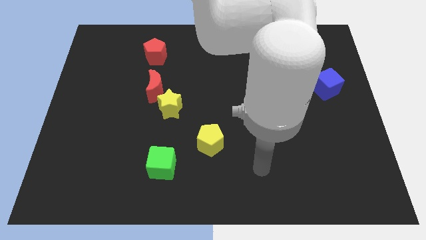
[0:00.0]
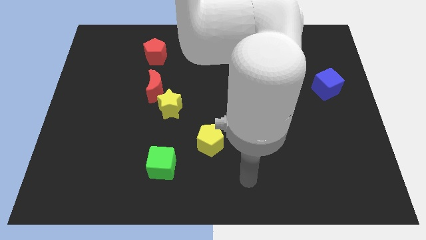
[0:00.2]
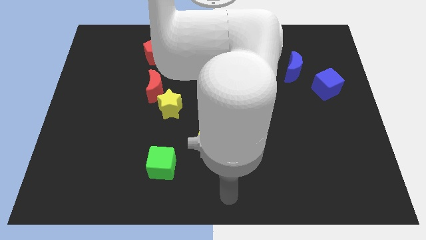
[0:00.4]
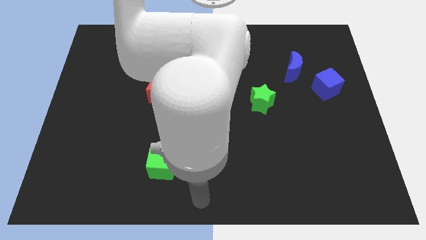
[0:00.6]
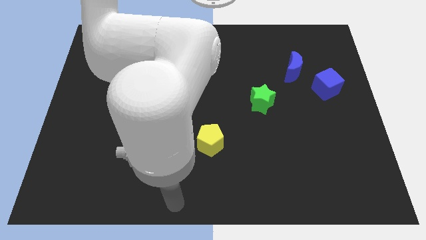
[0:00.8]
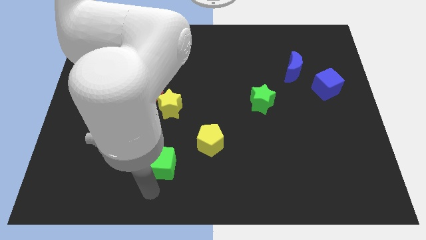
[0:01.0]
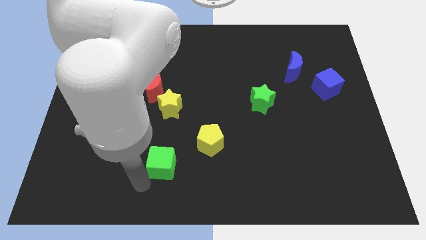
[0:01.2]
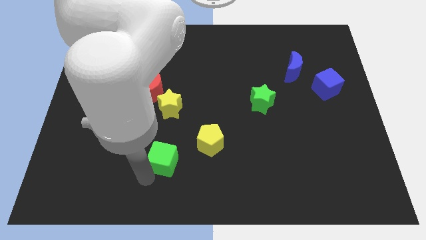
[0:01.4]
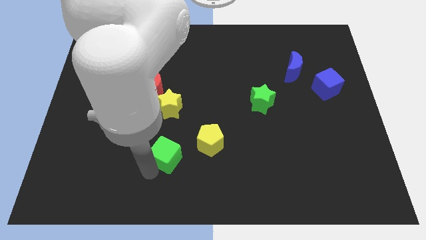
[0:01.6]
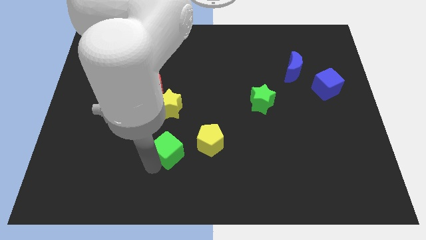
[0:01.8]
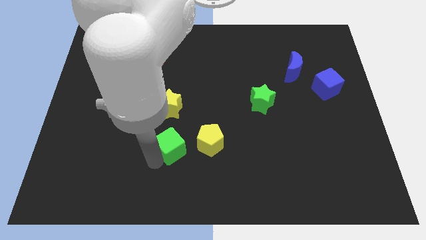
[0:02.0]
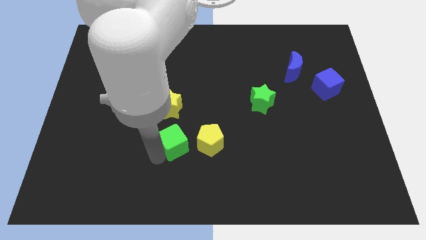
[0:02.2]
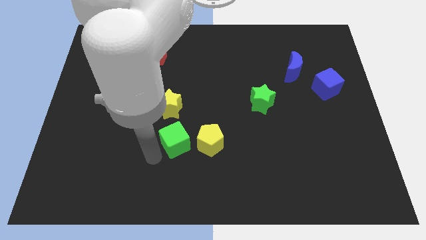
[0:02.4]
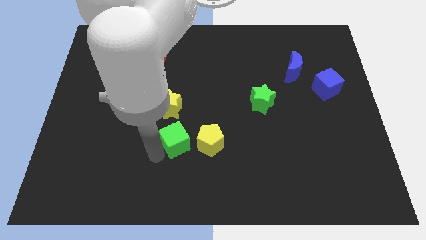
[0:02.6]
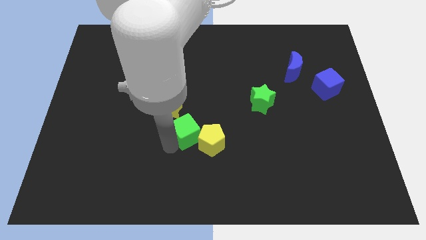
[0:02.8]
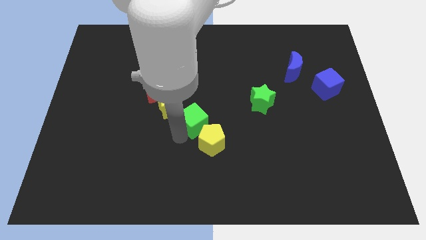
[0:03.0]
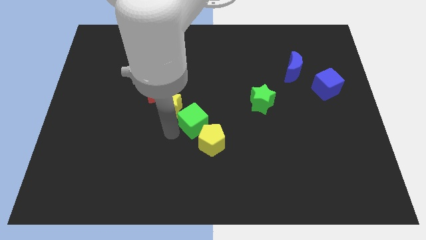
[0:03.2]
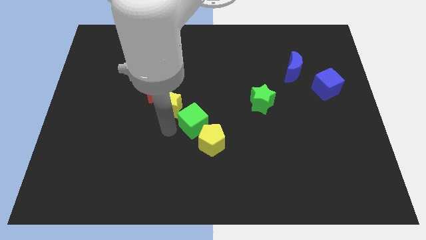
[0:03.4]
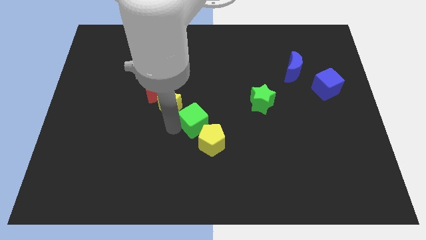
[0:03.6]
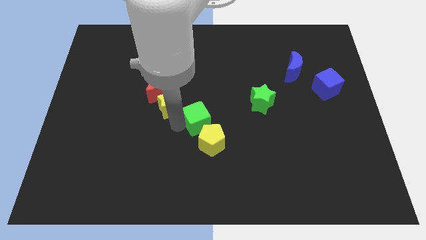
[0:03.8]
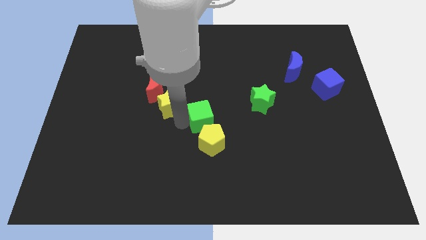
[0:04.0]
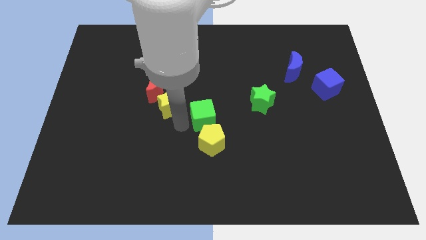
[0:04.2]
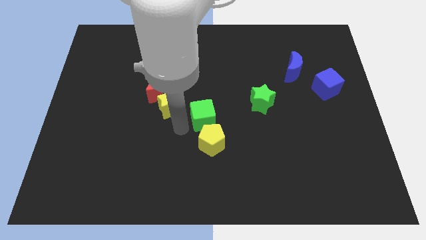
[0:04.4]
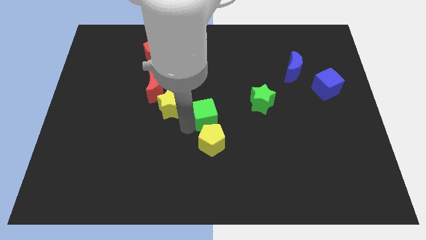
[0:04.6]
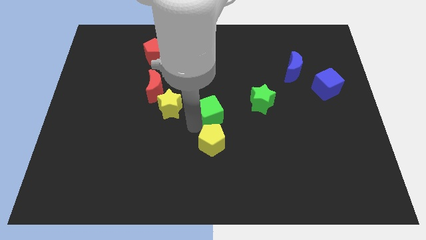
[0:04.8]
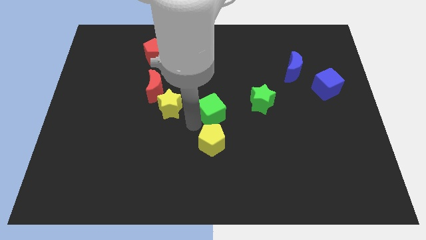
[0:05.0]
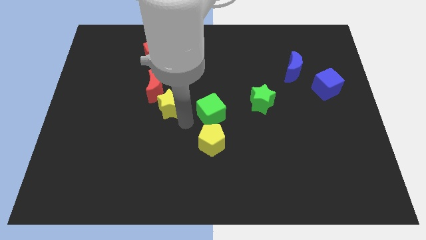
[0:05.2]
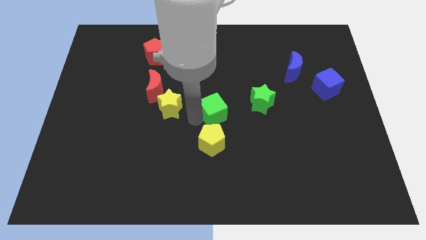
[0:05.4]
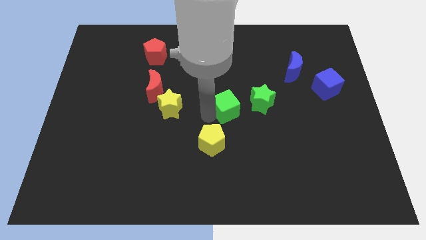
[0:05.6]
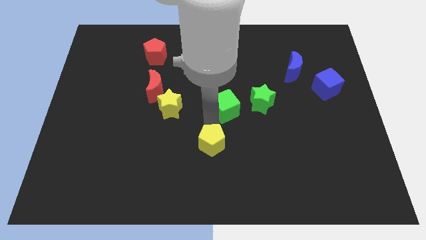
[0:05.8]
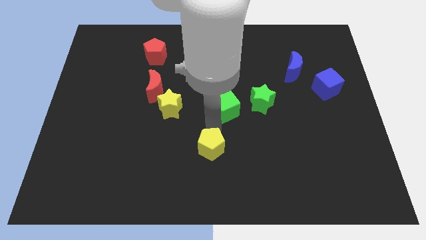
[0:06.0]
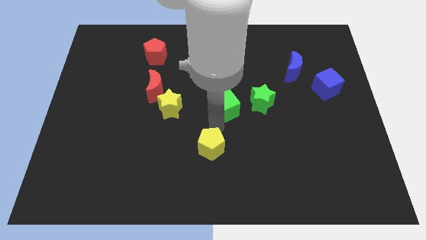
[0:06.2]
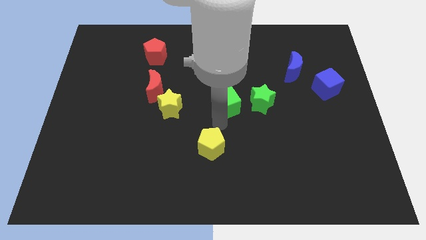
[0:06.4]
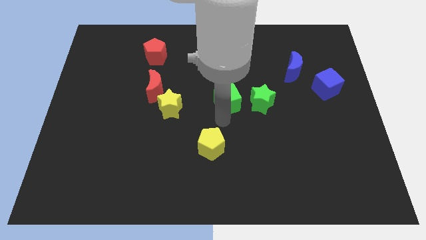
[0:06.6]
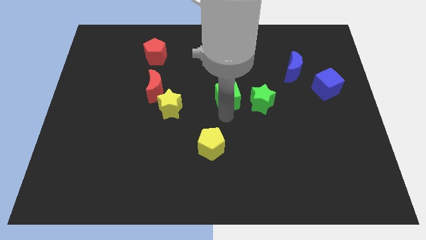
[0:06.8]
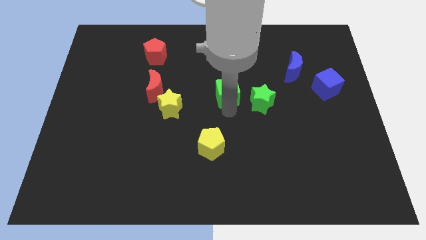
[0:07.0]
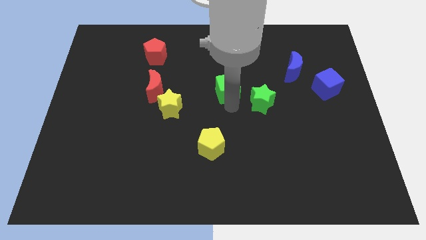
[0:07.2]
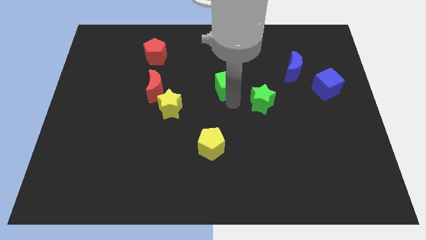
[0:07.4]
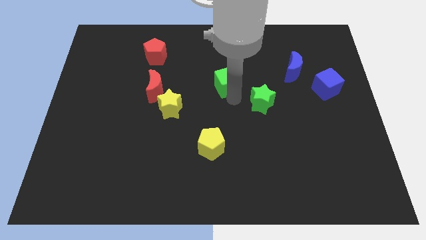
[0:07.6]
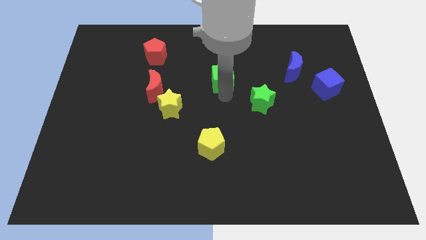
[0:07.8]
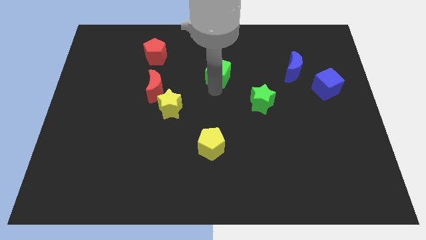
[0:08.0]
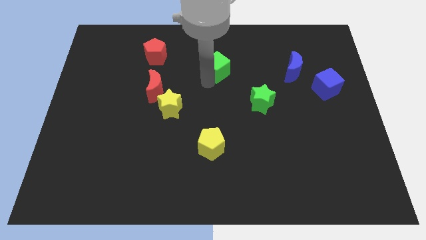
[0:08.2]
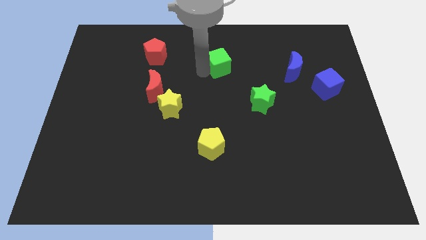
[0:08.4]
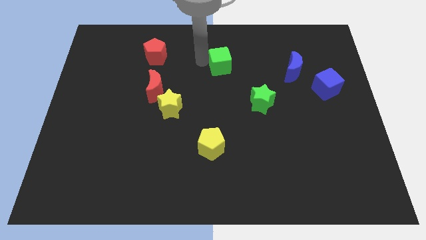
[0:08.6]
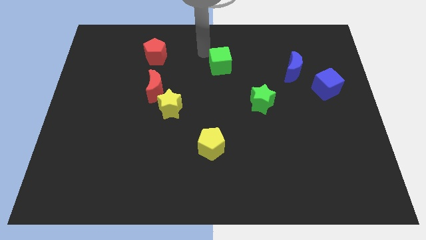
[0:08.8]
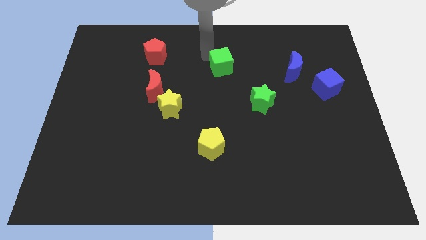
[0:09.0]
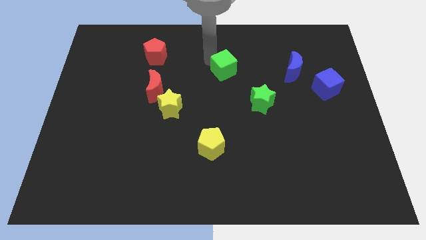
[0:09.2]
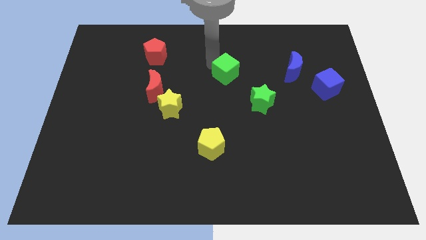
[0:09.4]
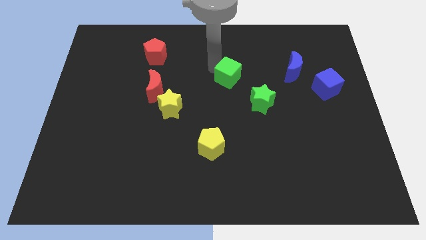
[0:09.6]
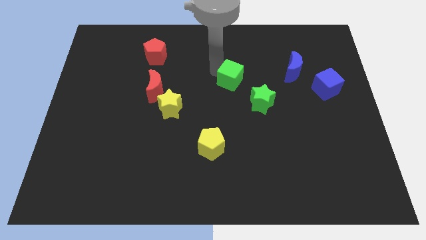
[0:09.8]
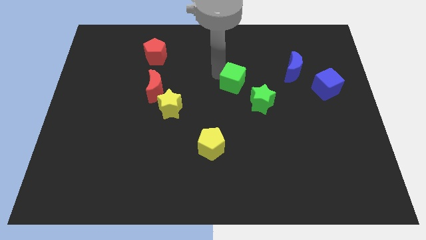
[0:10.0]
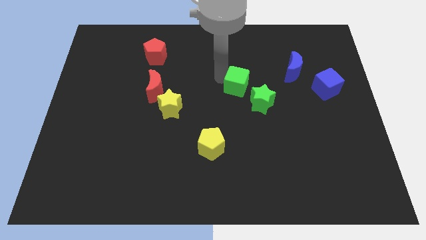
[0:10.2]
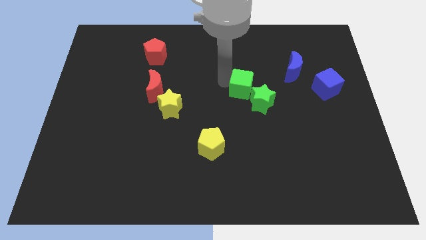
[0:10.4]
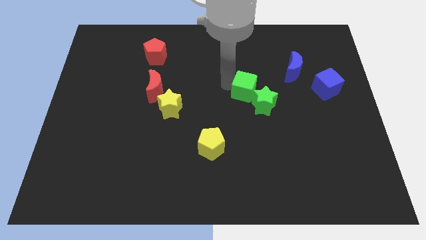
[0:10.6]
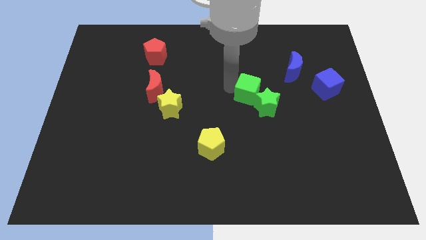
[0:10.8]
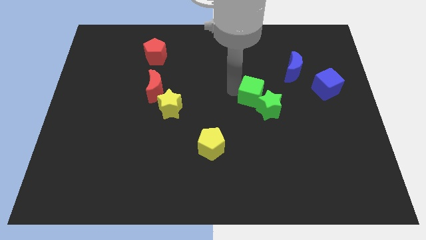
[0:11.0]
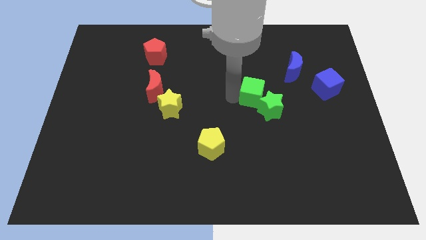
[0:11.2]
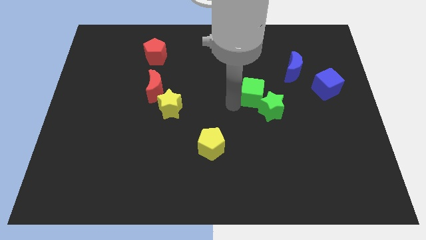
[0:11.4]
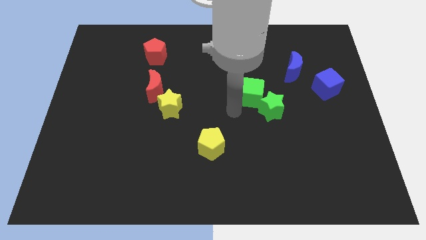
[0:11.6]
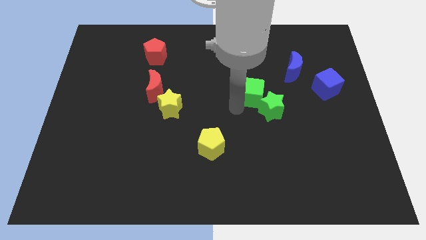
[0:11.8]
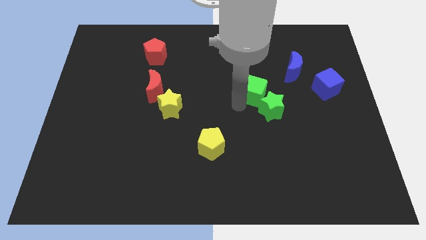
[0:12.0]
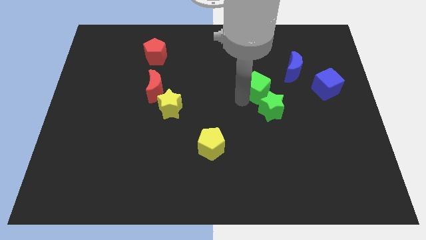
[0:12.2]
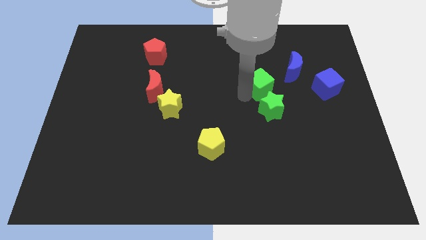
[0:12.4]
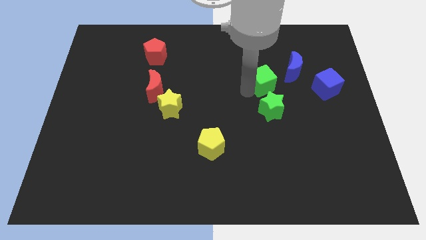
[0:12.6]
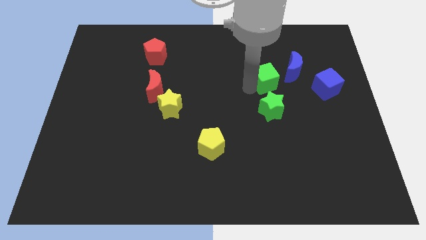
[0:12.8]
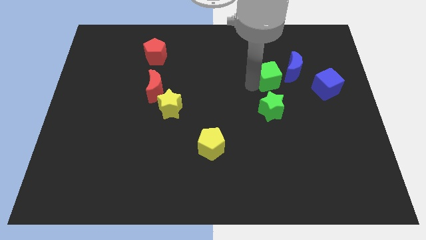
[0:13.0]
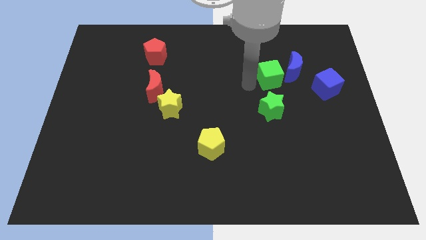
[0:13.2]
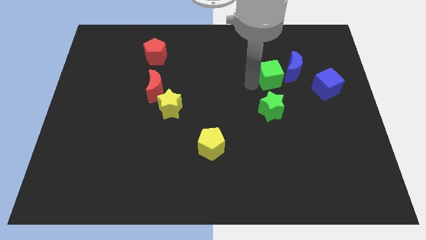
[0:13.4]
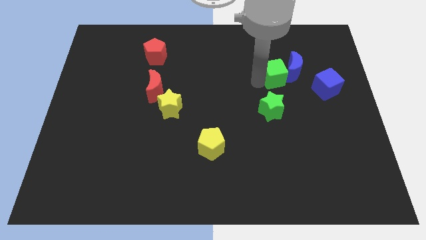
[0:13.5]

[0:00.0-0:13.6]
slide the green cube close to the blue moon

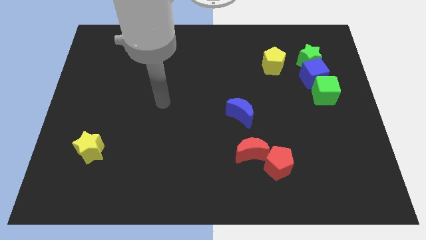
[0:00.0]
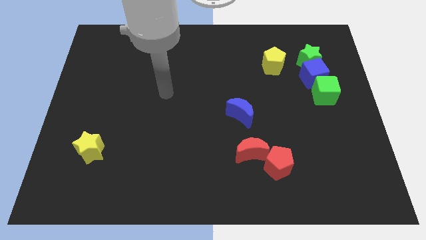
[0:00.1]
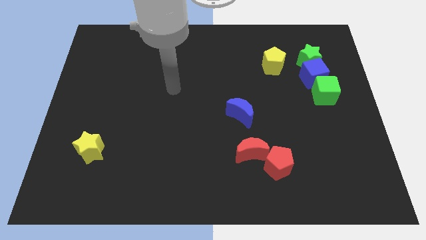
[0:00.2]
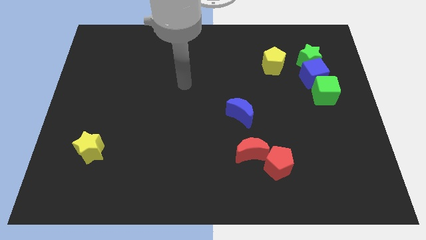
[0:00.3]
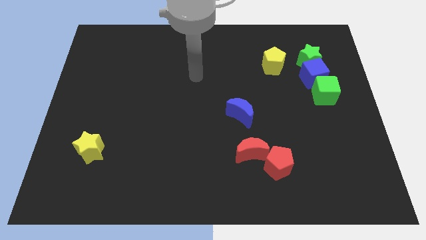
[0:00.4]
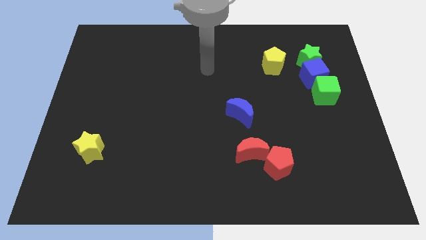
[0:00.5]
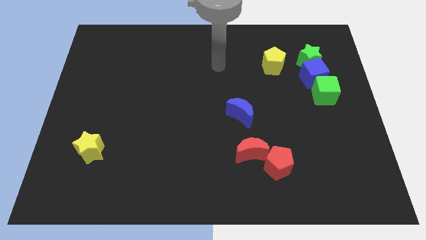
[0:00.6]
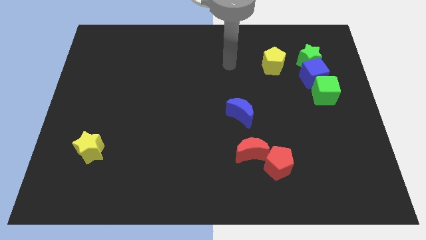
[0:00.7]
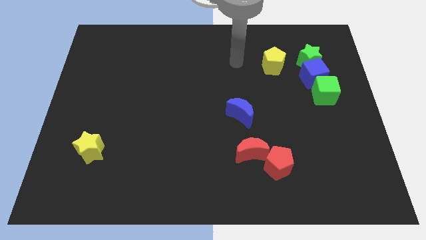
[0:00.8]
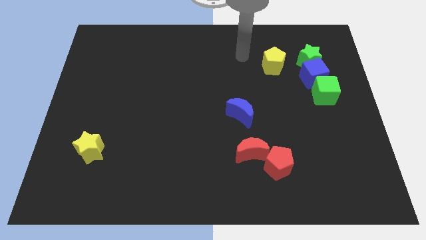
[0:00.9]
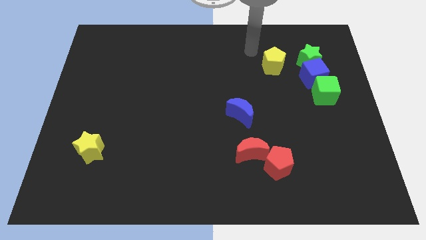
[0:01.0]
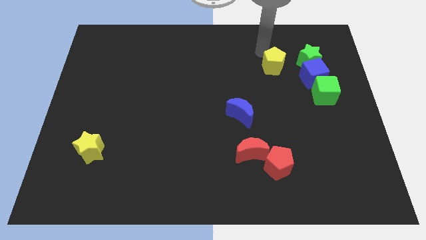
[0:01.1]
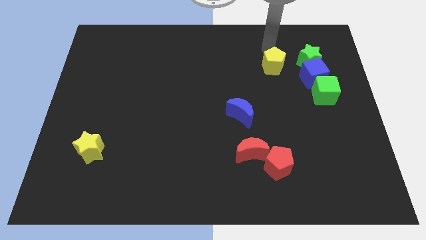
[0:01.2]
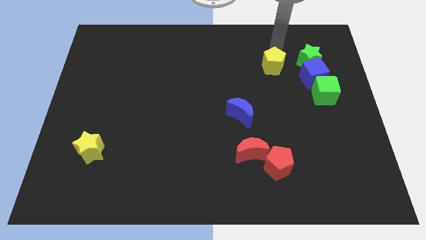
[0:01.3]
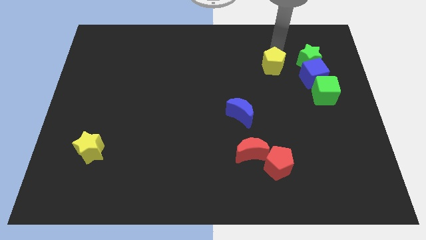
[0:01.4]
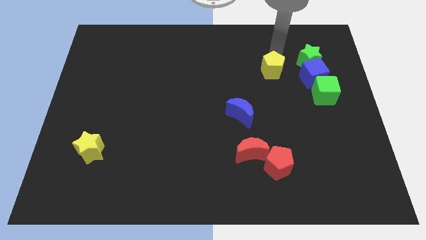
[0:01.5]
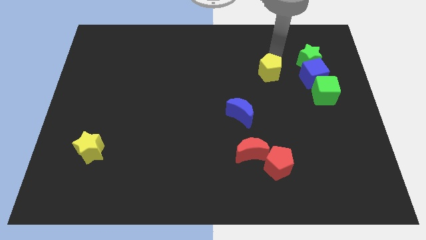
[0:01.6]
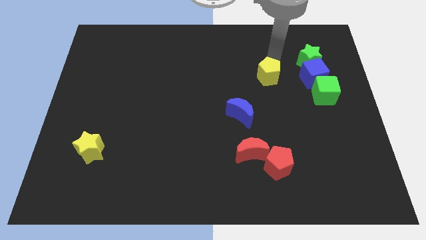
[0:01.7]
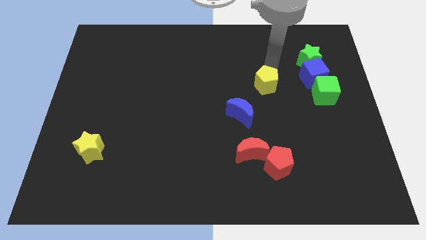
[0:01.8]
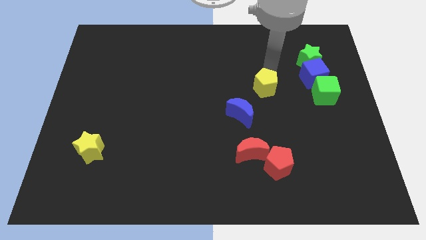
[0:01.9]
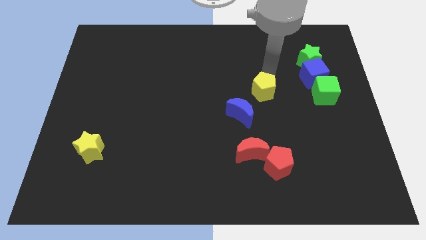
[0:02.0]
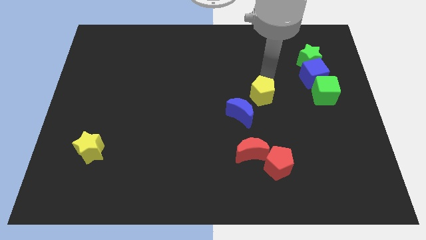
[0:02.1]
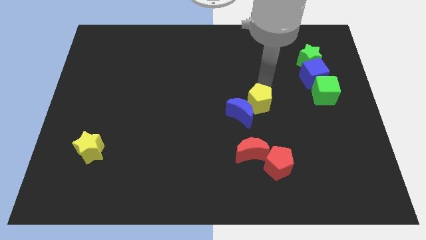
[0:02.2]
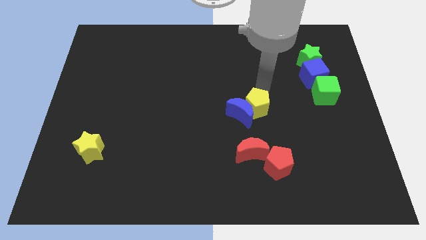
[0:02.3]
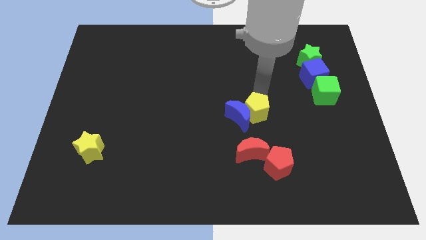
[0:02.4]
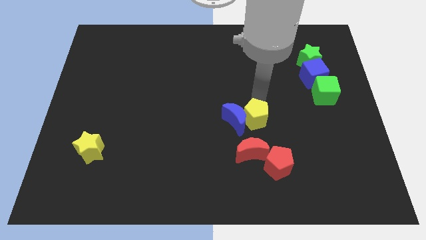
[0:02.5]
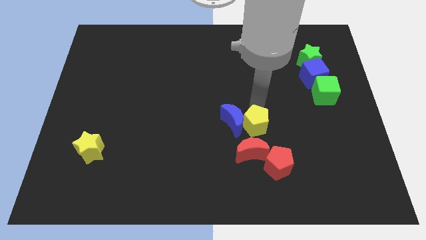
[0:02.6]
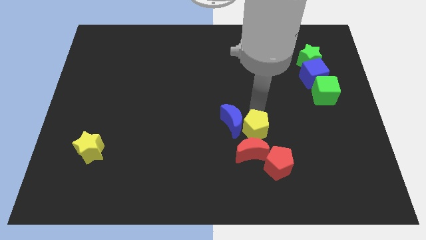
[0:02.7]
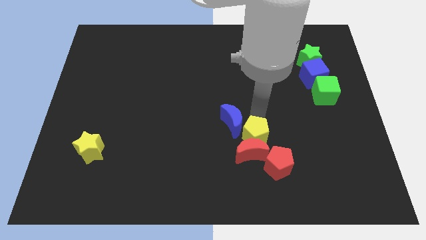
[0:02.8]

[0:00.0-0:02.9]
put the yellow pentagon towards the red moon
